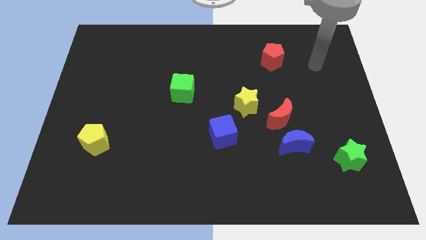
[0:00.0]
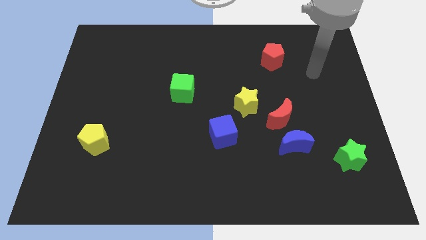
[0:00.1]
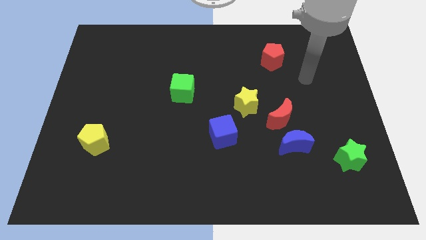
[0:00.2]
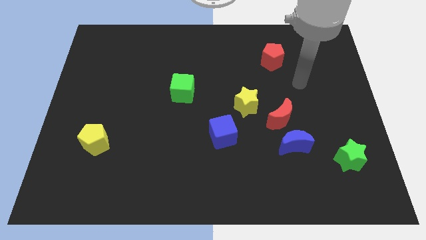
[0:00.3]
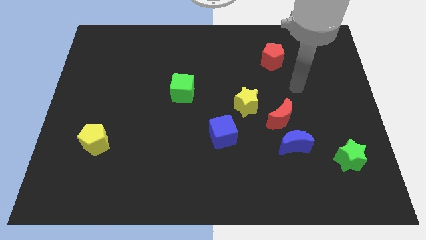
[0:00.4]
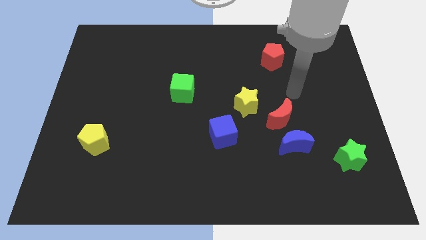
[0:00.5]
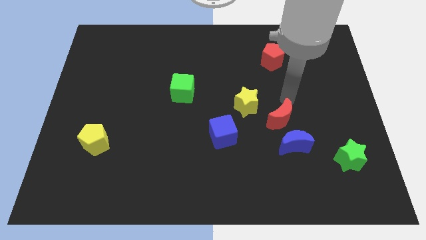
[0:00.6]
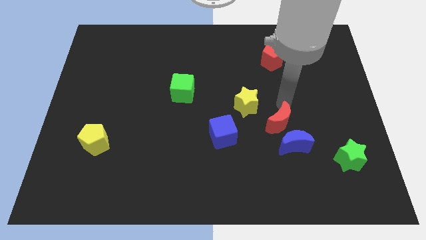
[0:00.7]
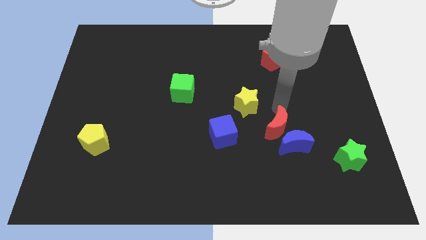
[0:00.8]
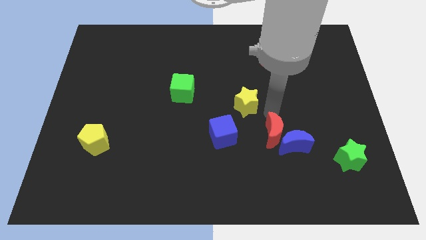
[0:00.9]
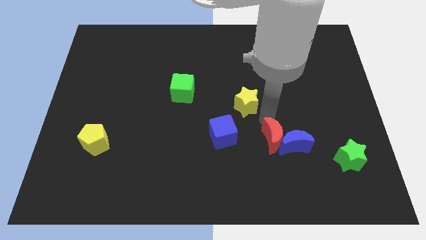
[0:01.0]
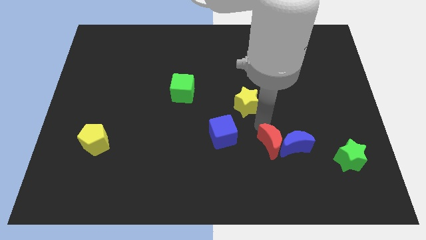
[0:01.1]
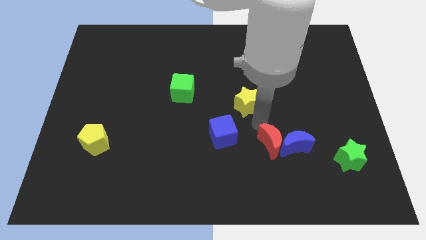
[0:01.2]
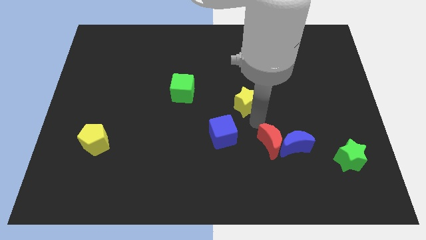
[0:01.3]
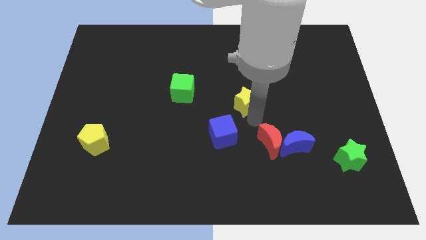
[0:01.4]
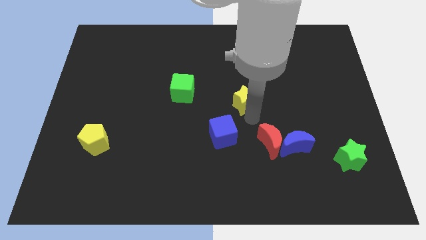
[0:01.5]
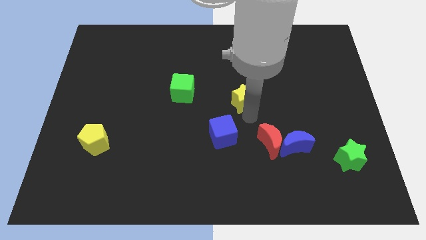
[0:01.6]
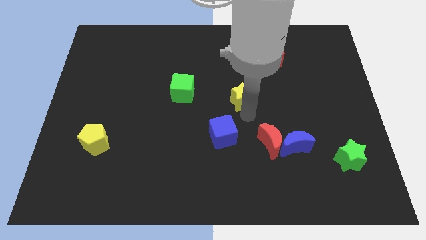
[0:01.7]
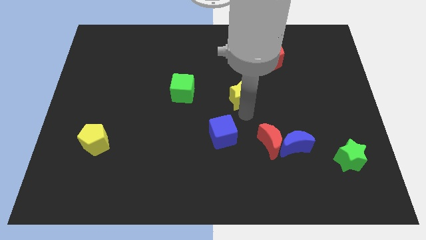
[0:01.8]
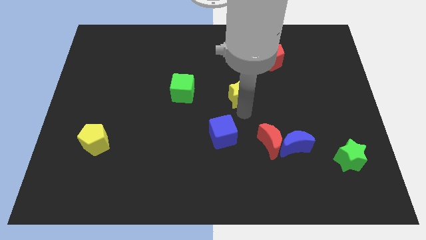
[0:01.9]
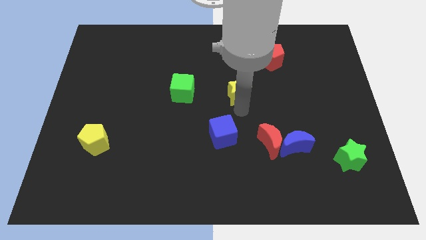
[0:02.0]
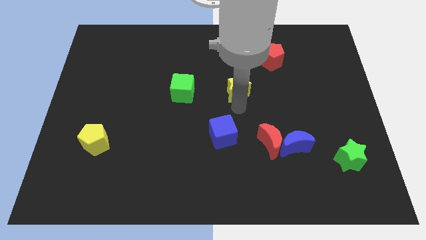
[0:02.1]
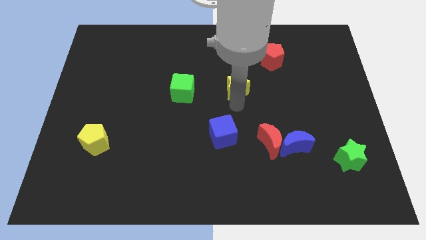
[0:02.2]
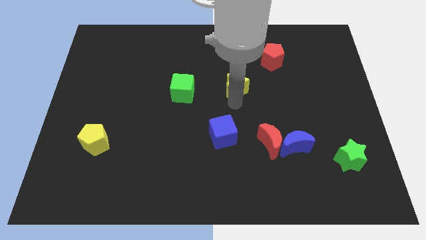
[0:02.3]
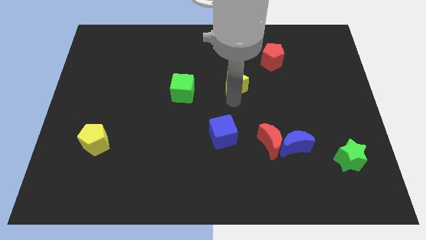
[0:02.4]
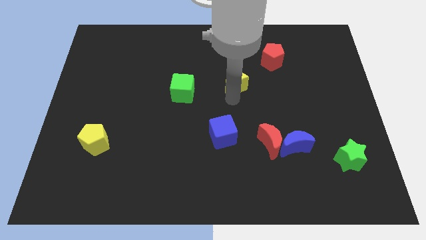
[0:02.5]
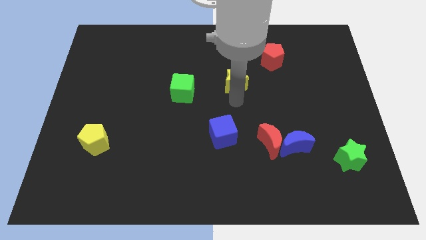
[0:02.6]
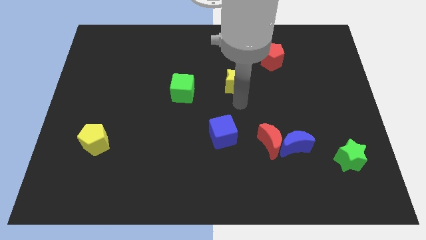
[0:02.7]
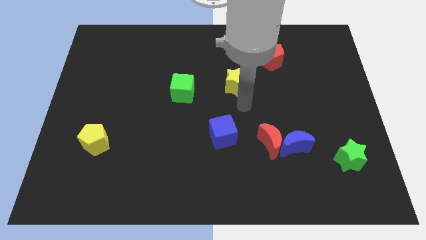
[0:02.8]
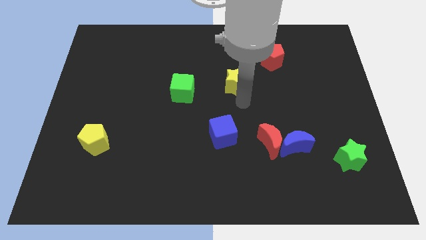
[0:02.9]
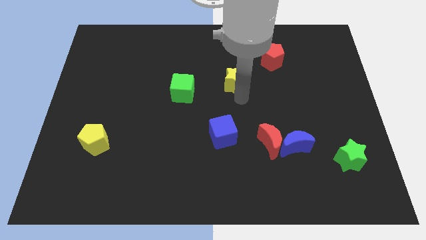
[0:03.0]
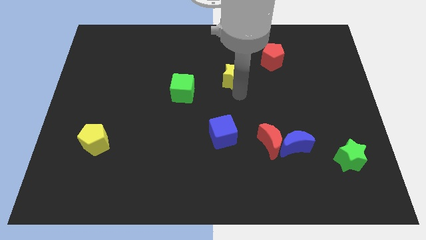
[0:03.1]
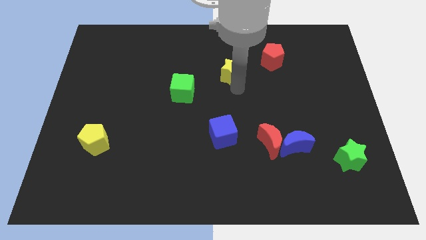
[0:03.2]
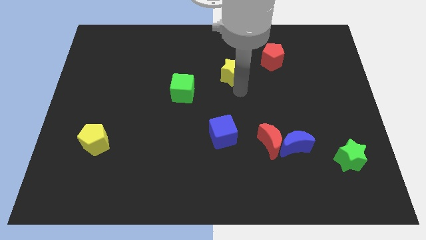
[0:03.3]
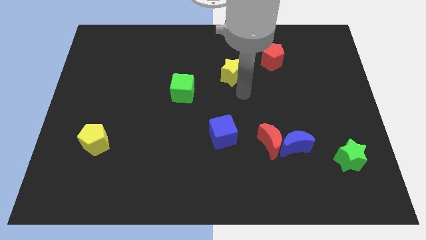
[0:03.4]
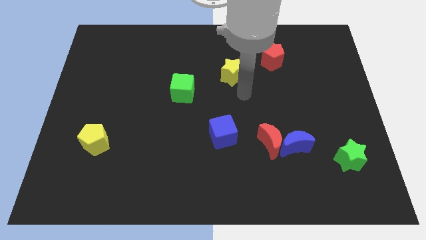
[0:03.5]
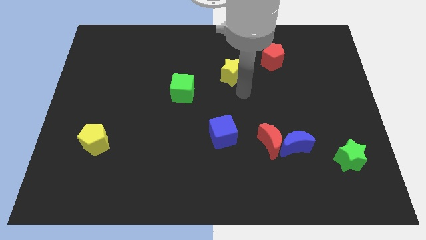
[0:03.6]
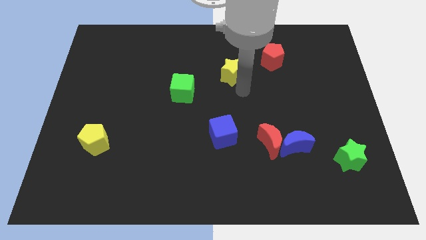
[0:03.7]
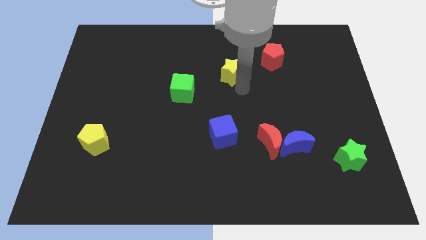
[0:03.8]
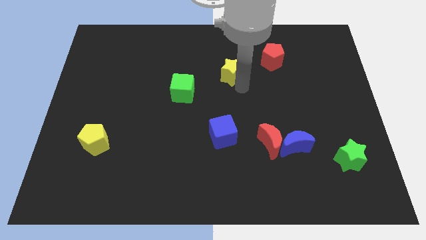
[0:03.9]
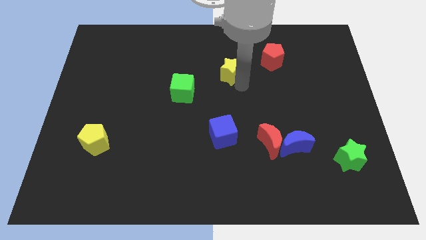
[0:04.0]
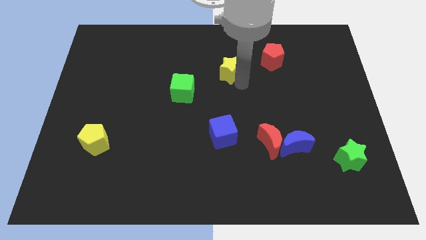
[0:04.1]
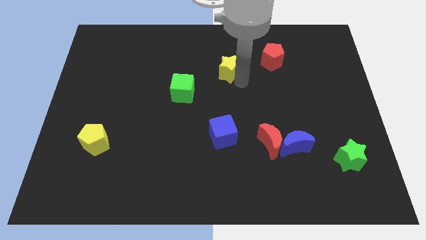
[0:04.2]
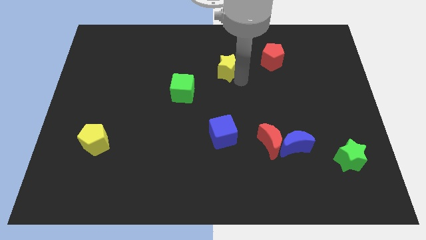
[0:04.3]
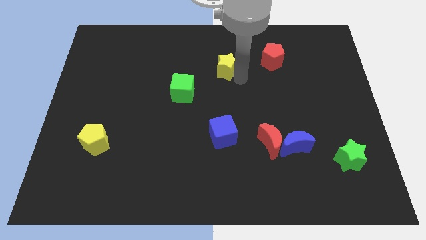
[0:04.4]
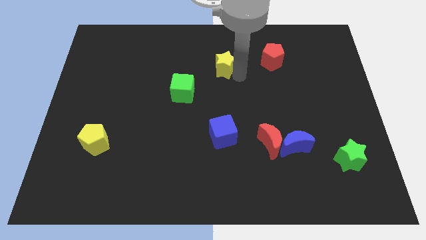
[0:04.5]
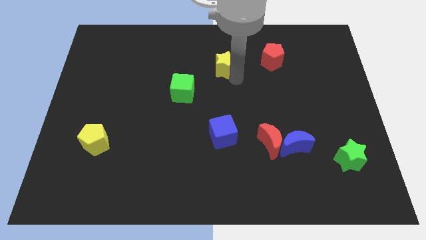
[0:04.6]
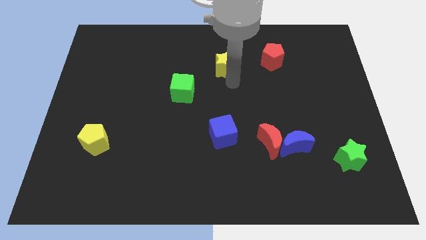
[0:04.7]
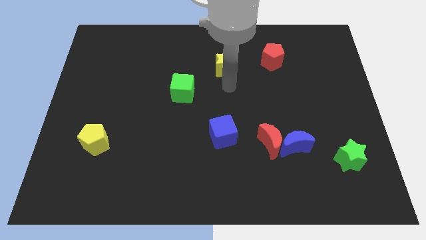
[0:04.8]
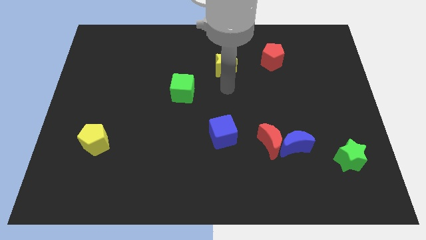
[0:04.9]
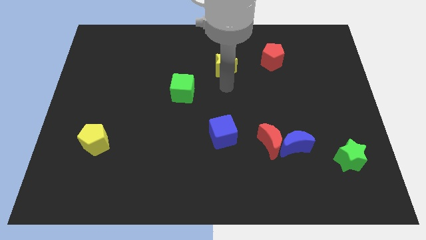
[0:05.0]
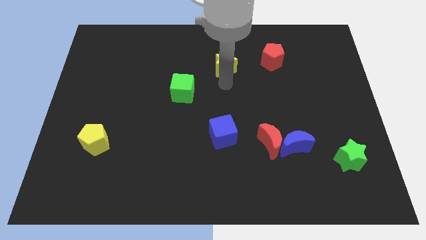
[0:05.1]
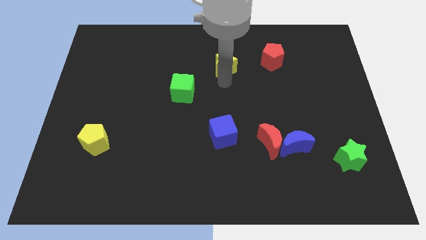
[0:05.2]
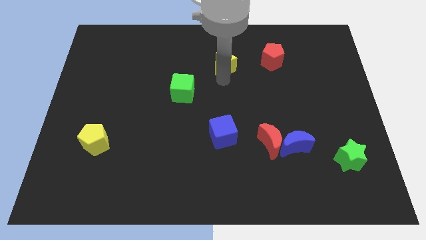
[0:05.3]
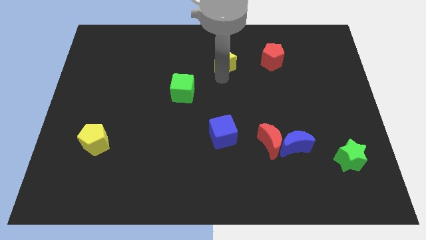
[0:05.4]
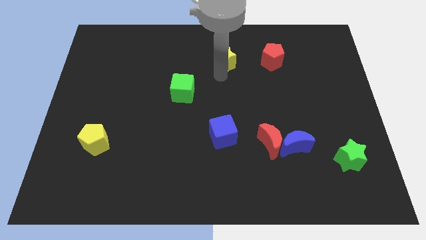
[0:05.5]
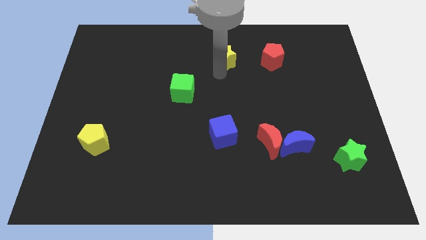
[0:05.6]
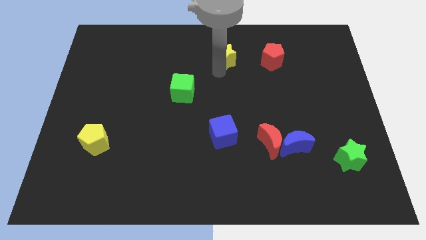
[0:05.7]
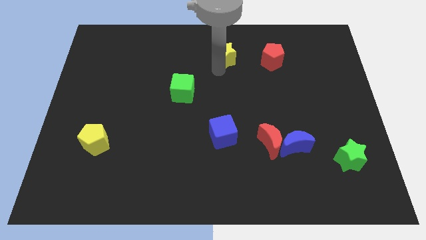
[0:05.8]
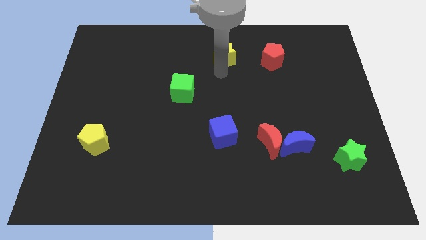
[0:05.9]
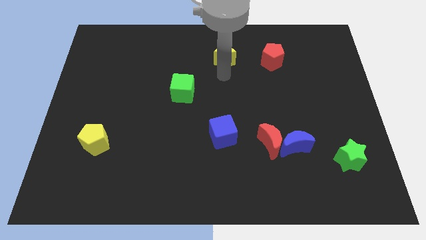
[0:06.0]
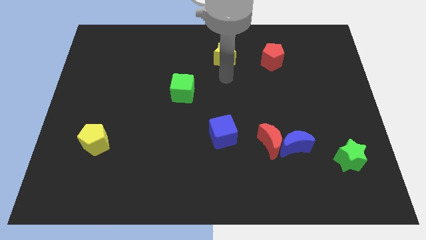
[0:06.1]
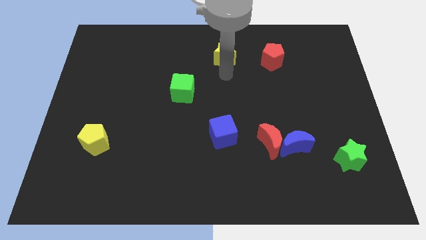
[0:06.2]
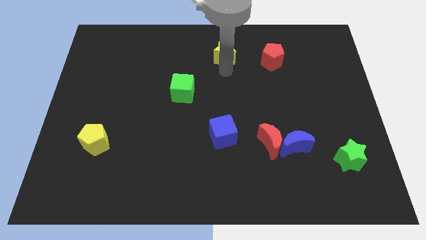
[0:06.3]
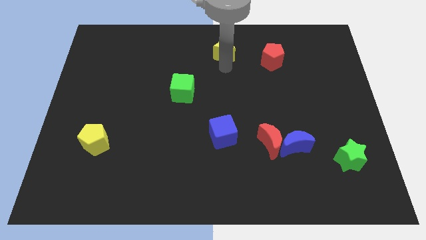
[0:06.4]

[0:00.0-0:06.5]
slide the yellow star to the towards your base

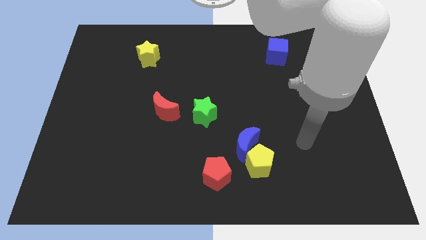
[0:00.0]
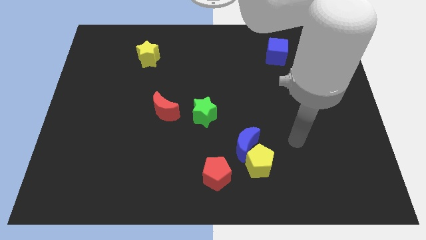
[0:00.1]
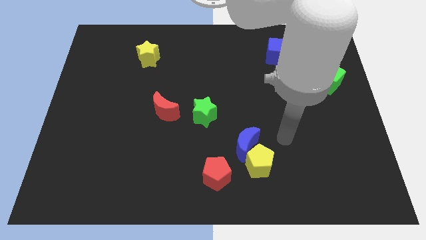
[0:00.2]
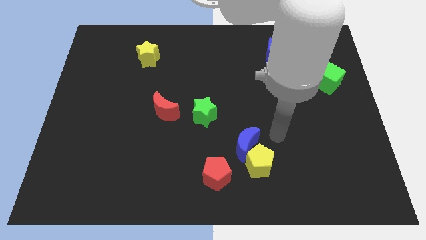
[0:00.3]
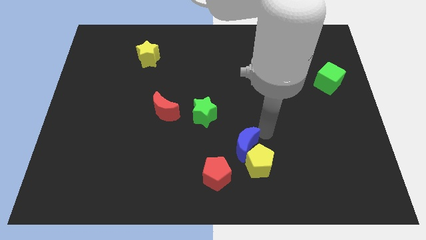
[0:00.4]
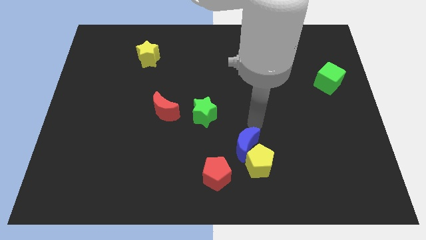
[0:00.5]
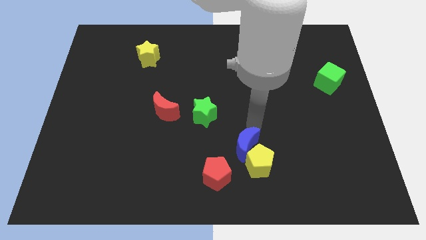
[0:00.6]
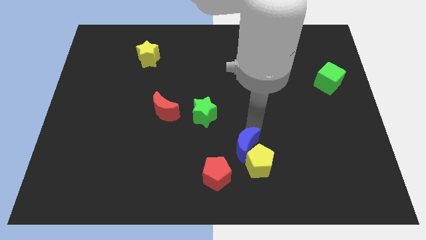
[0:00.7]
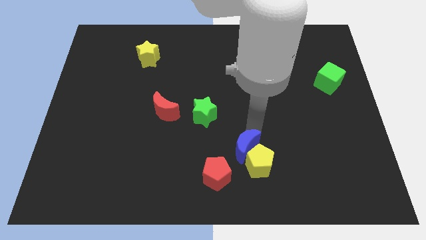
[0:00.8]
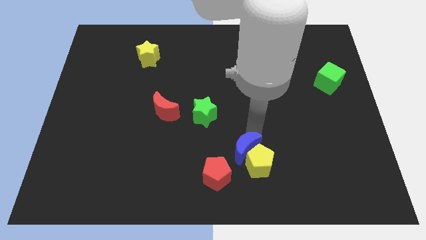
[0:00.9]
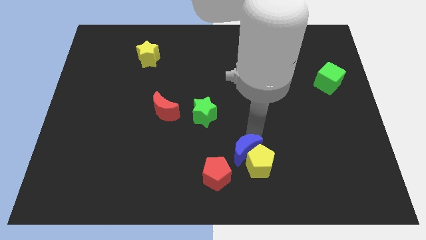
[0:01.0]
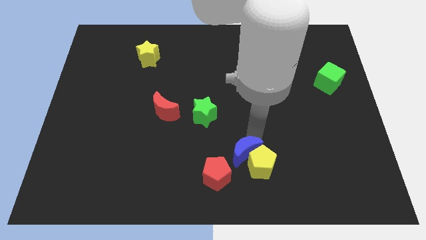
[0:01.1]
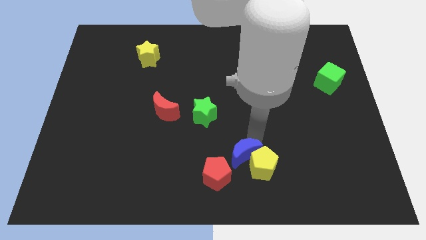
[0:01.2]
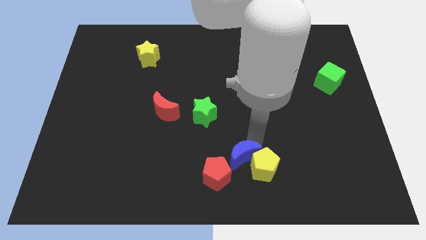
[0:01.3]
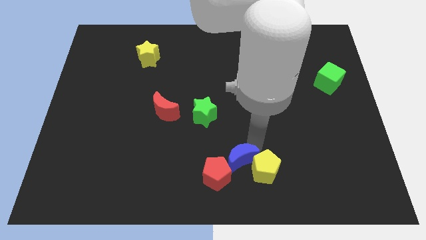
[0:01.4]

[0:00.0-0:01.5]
push the blue moon to the bottom
